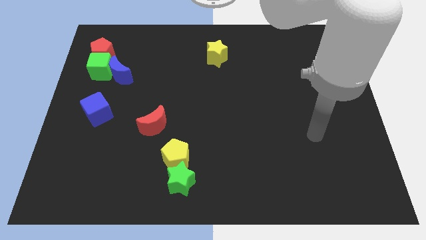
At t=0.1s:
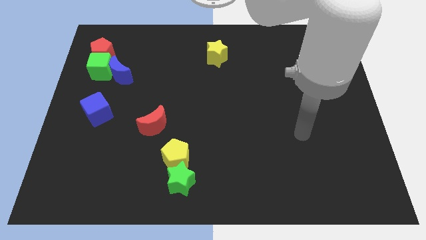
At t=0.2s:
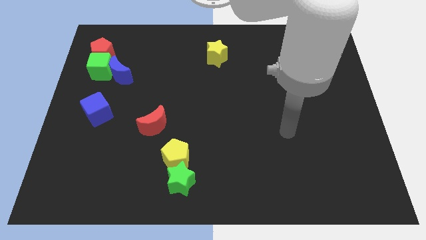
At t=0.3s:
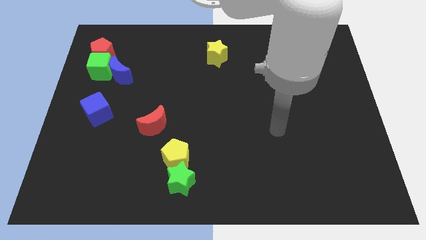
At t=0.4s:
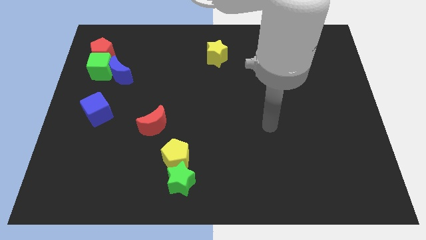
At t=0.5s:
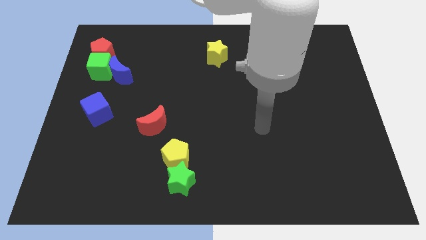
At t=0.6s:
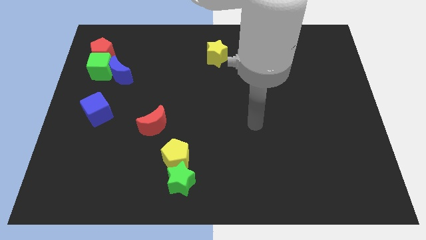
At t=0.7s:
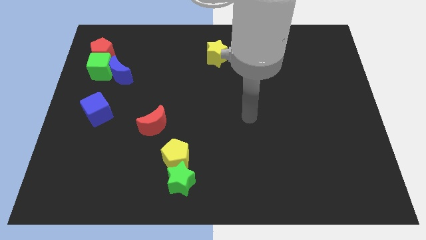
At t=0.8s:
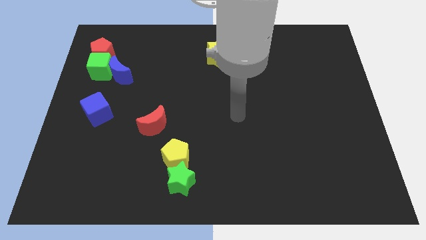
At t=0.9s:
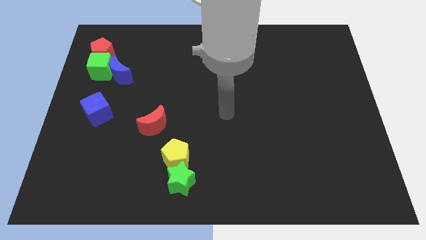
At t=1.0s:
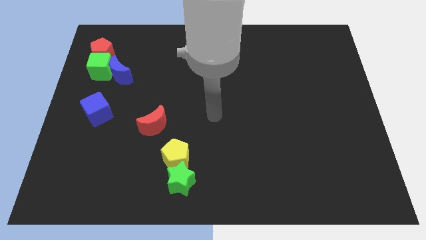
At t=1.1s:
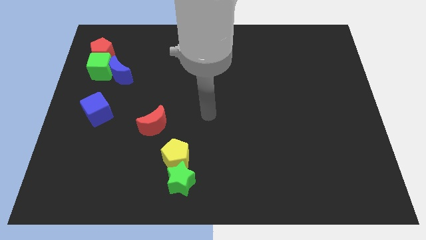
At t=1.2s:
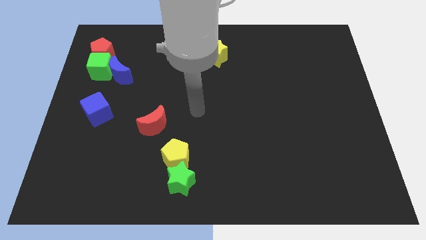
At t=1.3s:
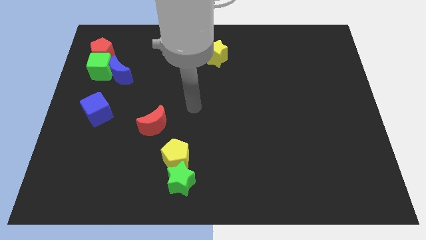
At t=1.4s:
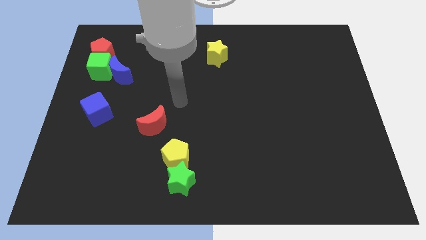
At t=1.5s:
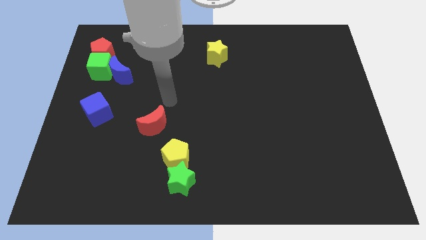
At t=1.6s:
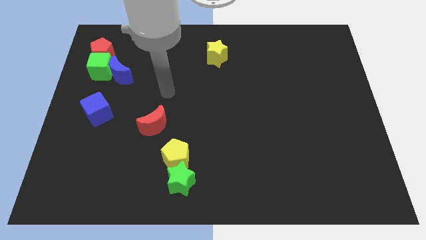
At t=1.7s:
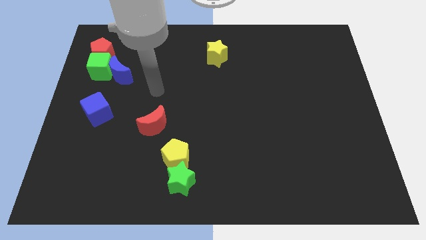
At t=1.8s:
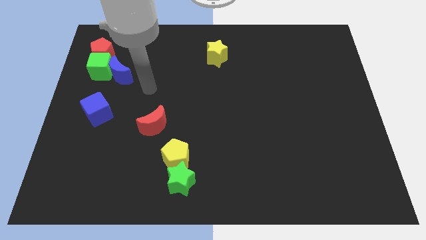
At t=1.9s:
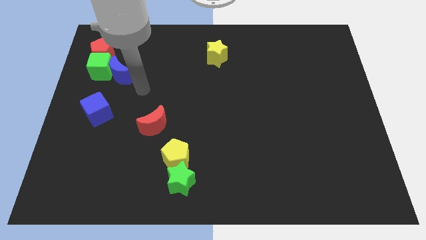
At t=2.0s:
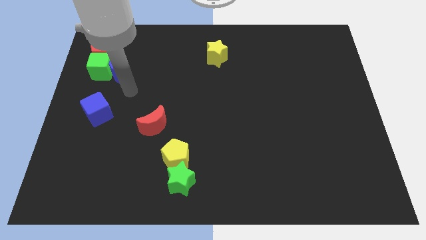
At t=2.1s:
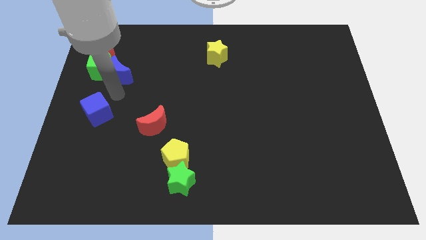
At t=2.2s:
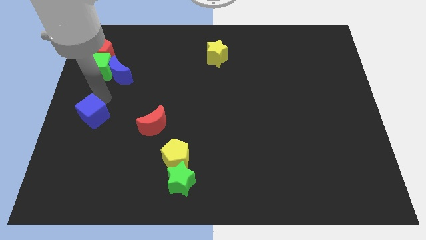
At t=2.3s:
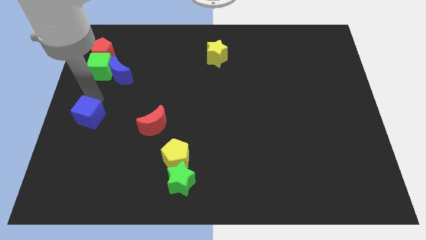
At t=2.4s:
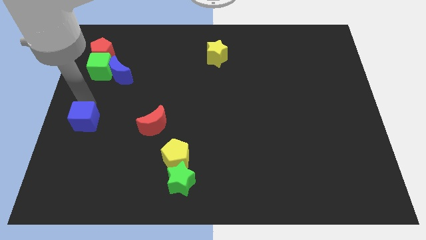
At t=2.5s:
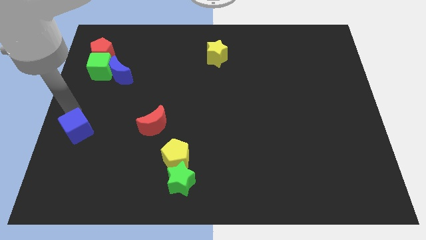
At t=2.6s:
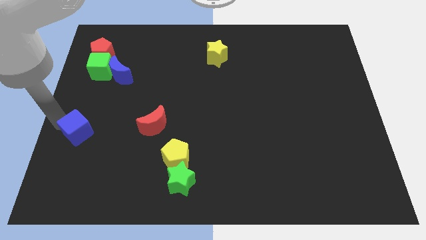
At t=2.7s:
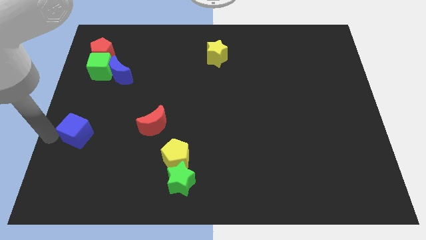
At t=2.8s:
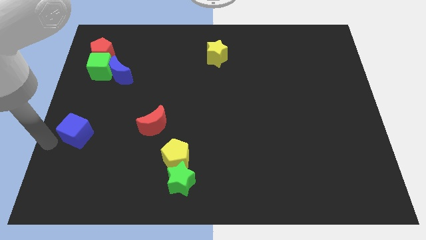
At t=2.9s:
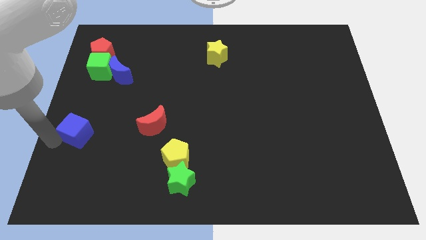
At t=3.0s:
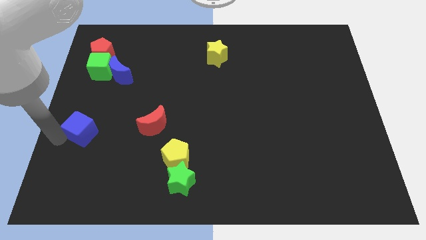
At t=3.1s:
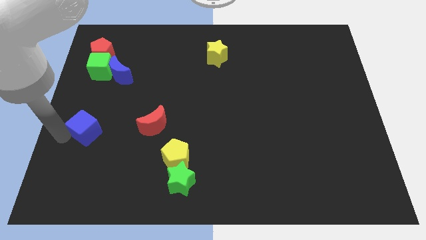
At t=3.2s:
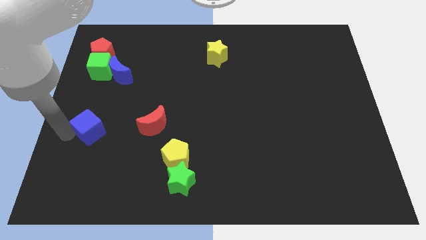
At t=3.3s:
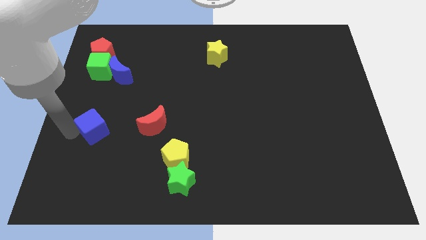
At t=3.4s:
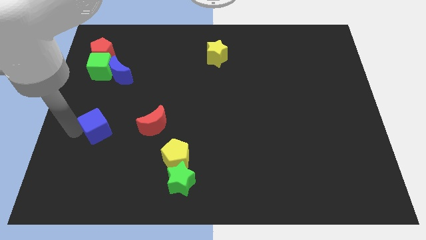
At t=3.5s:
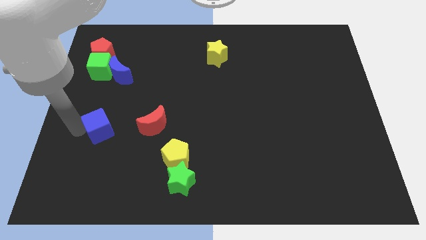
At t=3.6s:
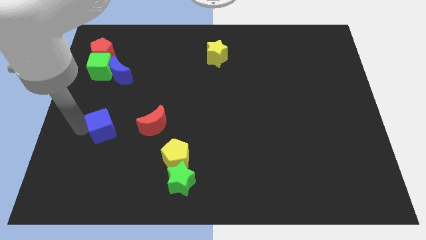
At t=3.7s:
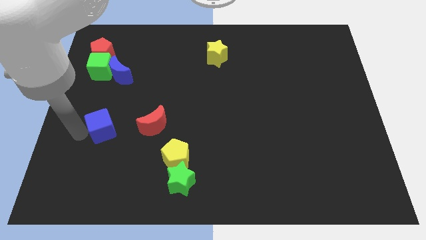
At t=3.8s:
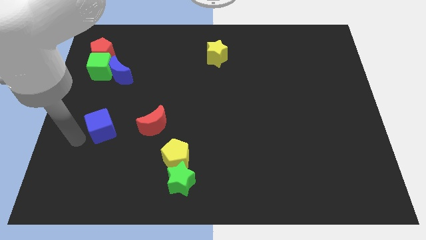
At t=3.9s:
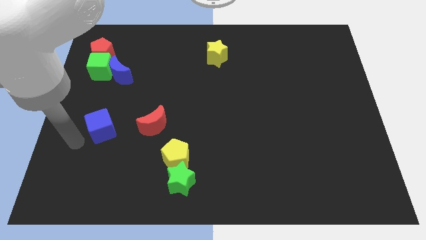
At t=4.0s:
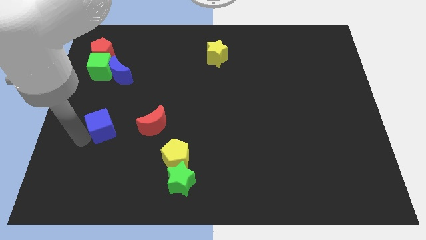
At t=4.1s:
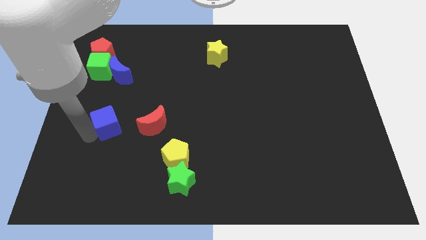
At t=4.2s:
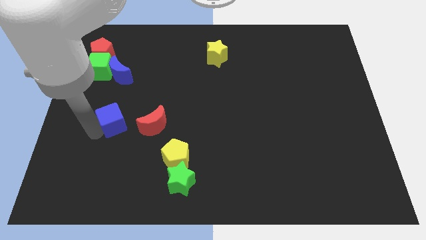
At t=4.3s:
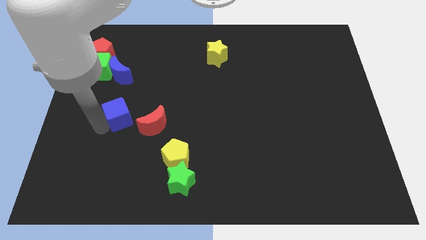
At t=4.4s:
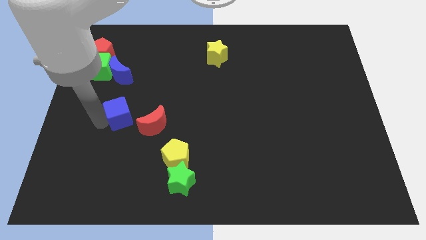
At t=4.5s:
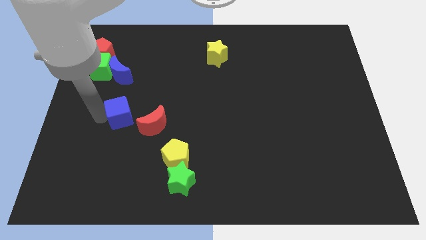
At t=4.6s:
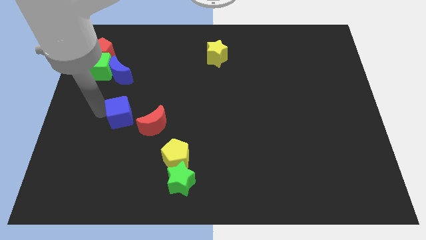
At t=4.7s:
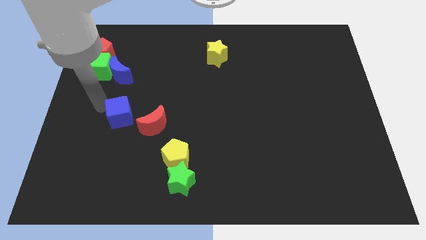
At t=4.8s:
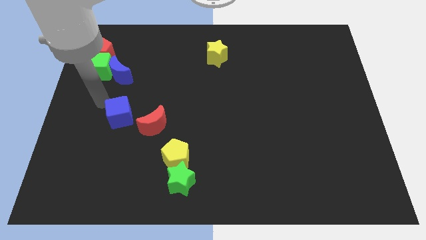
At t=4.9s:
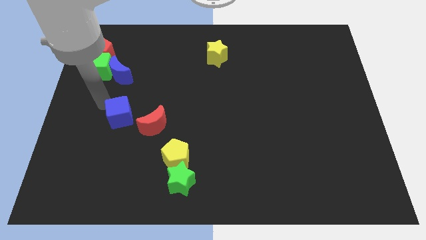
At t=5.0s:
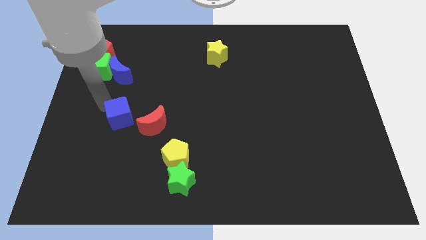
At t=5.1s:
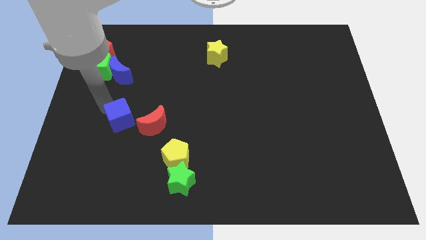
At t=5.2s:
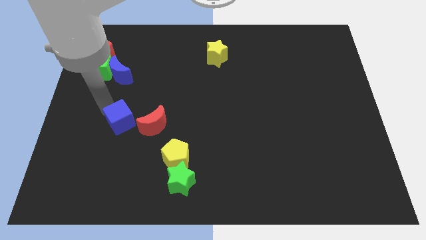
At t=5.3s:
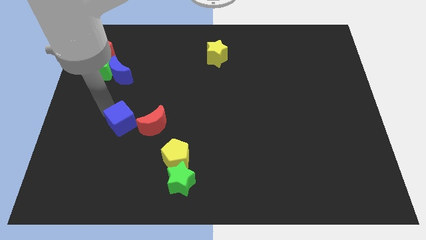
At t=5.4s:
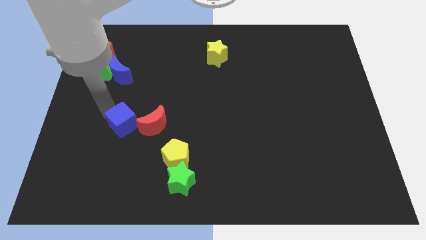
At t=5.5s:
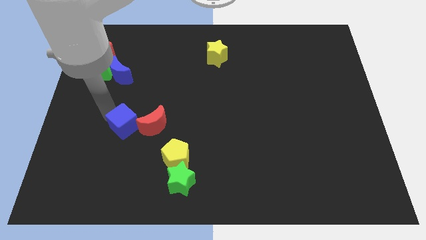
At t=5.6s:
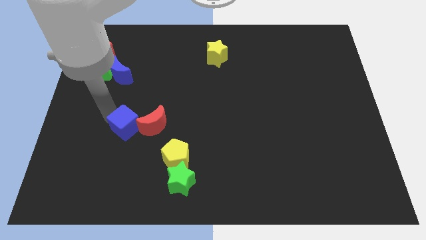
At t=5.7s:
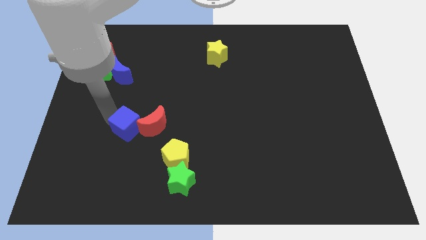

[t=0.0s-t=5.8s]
slide the blue cube to the red moon
